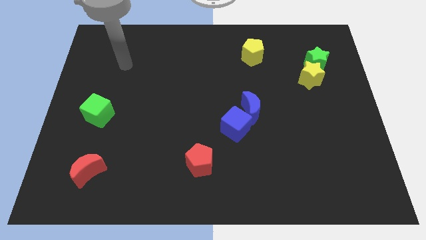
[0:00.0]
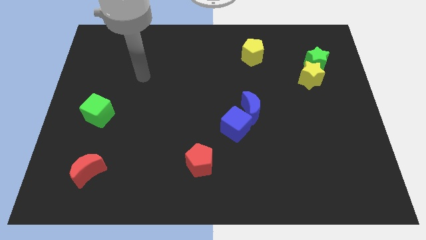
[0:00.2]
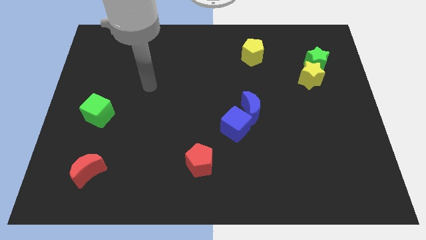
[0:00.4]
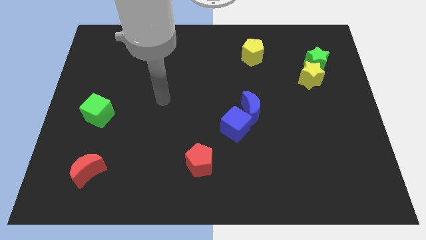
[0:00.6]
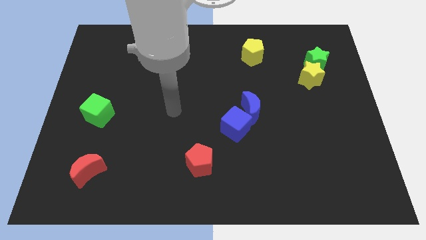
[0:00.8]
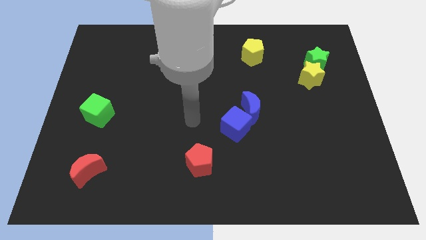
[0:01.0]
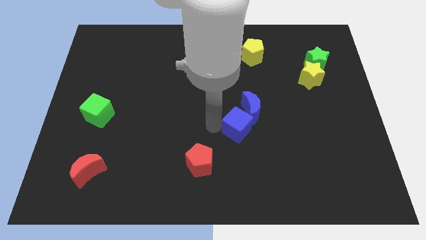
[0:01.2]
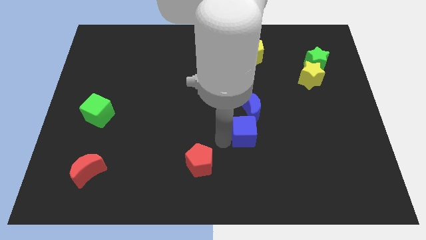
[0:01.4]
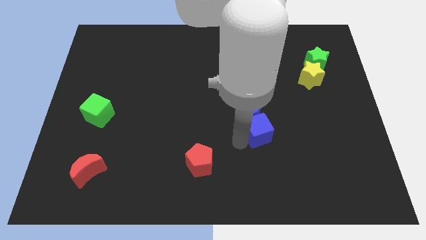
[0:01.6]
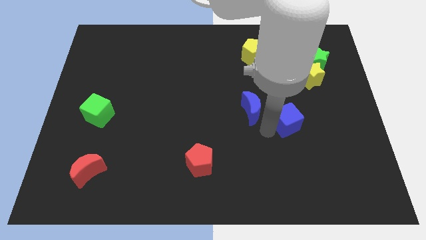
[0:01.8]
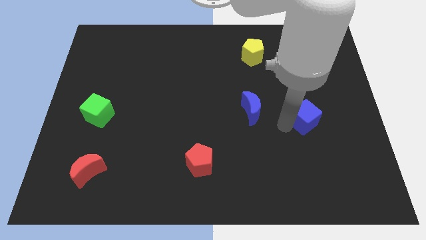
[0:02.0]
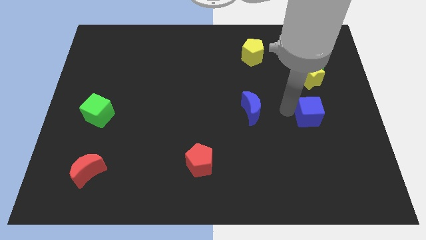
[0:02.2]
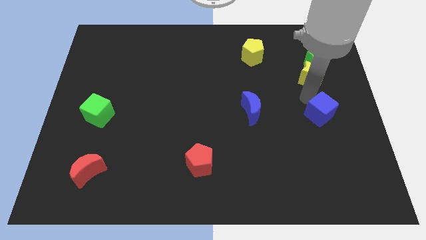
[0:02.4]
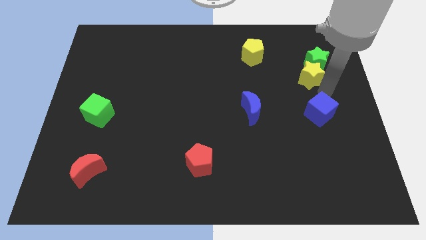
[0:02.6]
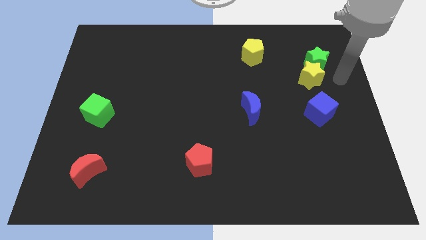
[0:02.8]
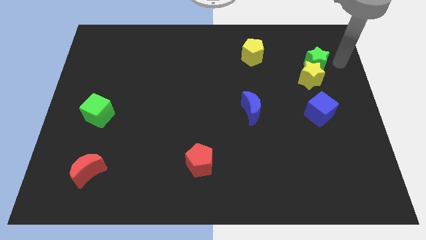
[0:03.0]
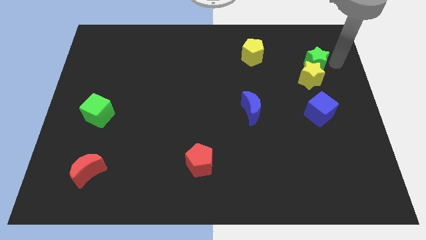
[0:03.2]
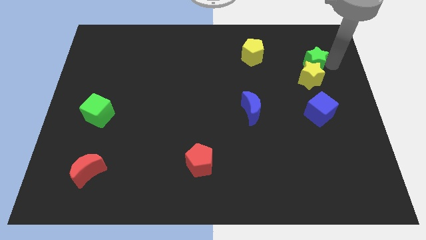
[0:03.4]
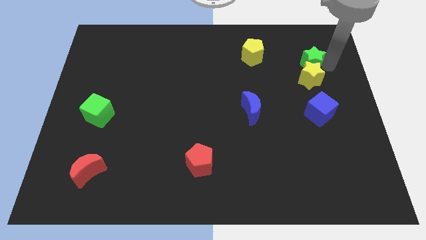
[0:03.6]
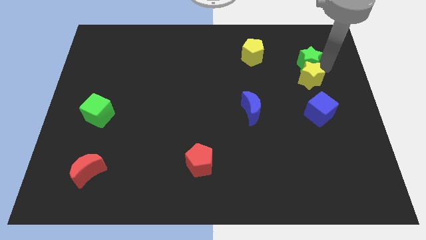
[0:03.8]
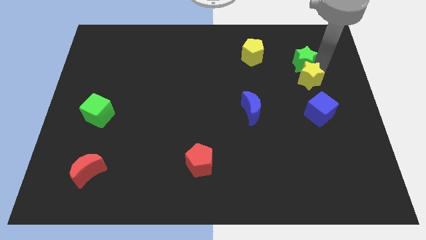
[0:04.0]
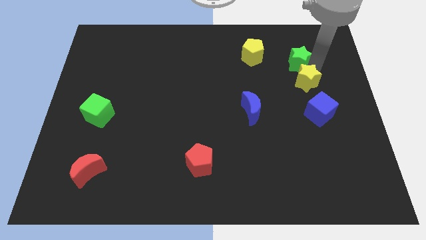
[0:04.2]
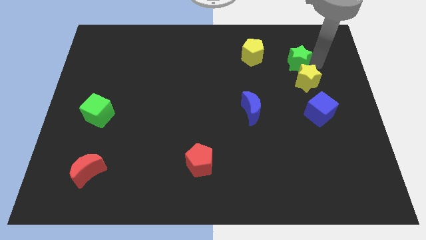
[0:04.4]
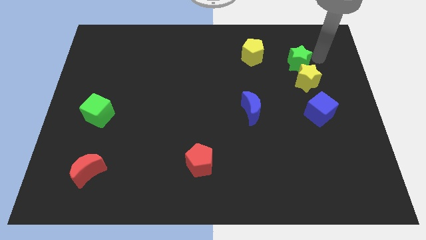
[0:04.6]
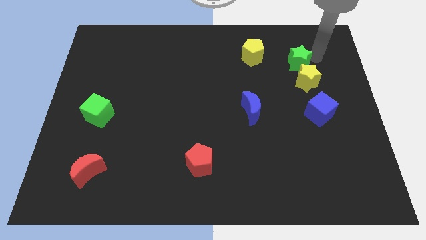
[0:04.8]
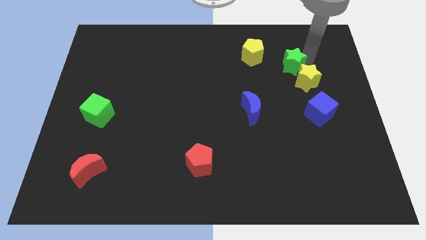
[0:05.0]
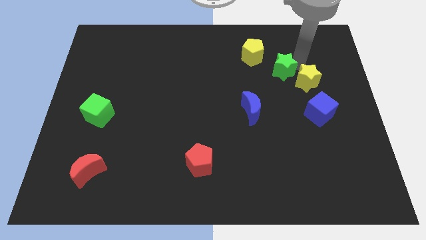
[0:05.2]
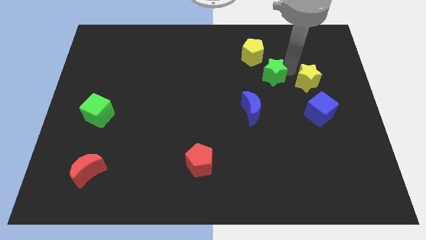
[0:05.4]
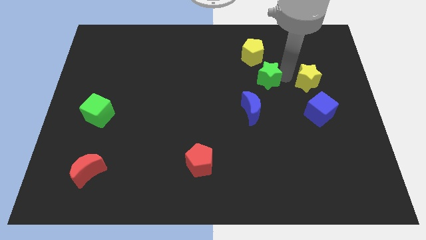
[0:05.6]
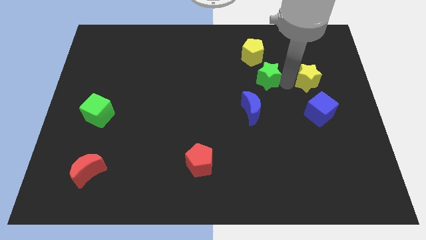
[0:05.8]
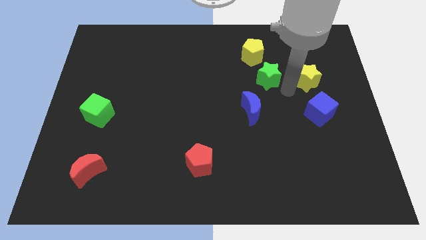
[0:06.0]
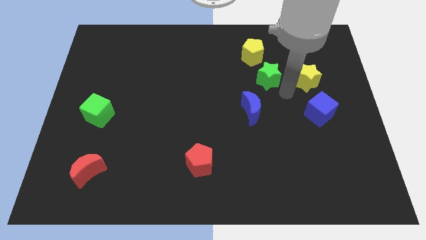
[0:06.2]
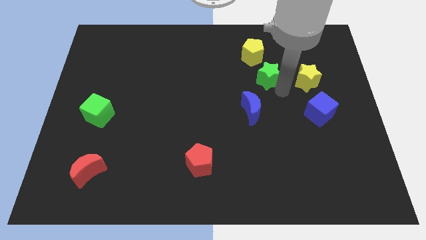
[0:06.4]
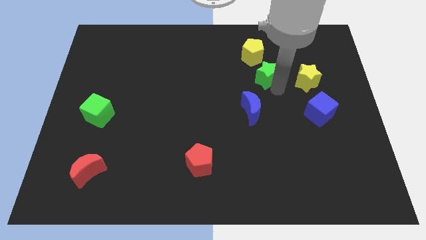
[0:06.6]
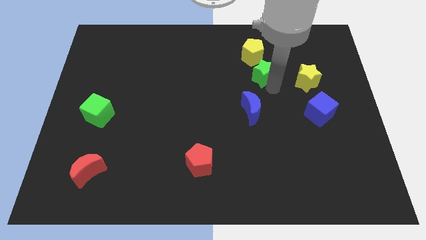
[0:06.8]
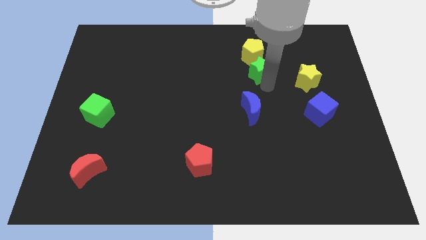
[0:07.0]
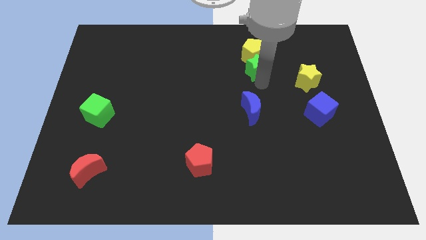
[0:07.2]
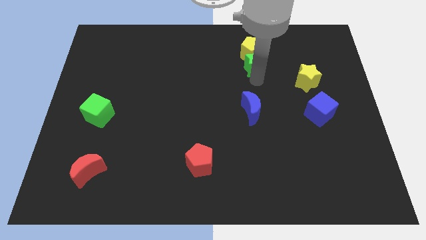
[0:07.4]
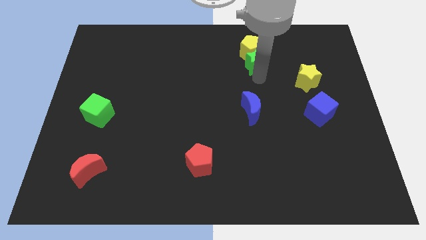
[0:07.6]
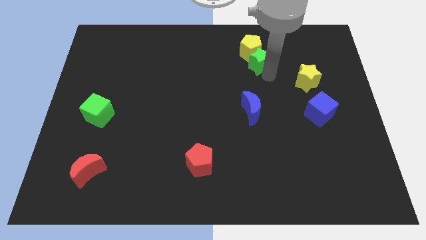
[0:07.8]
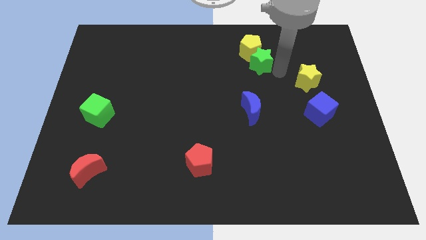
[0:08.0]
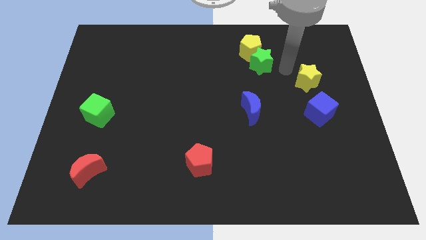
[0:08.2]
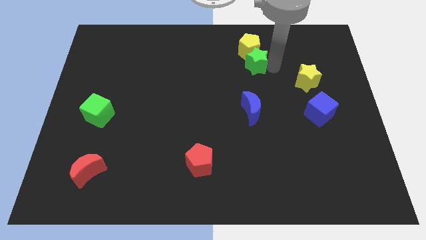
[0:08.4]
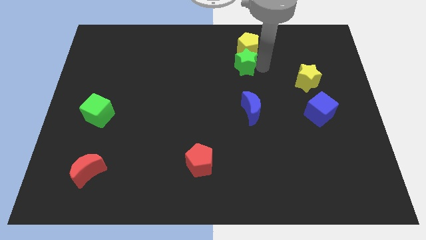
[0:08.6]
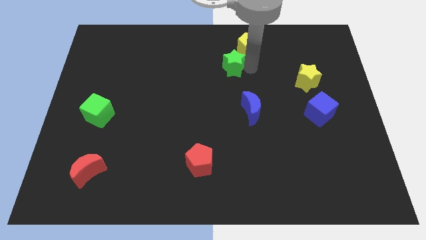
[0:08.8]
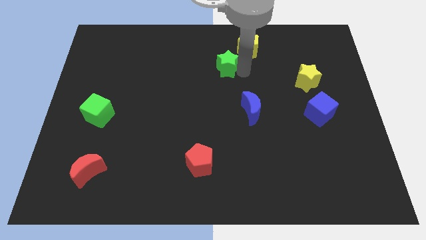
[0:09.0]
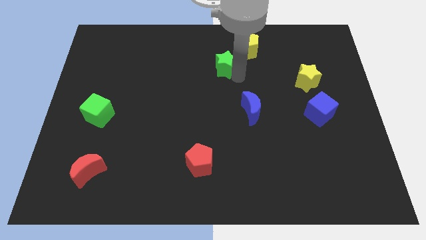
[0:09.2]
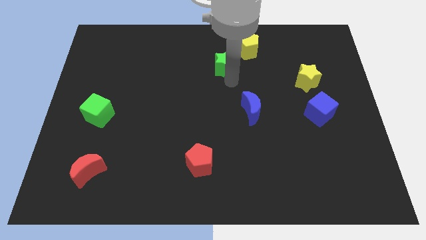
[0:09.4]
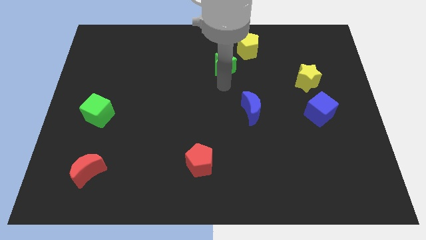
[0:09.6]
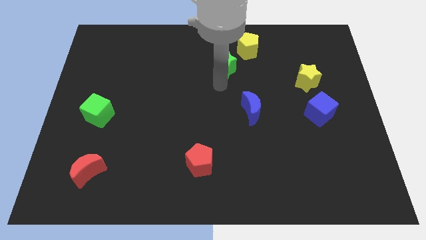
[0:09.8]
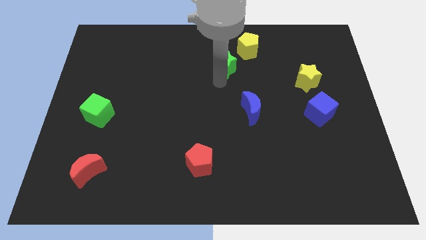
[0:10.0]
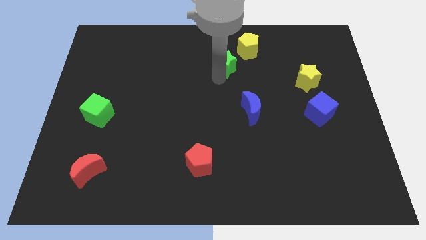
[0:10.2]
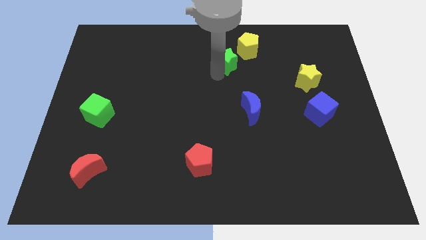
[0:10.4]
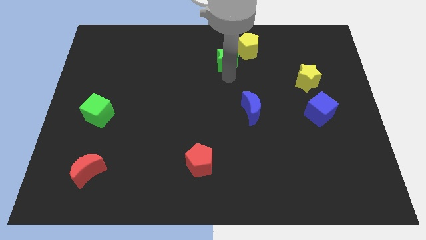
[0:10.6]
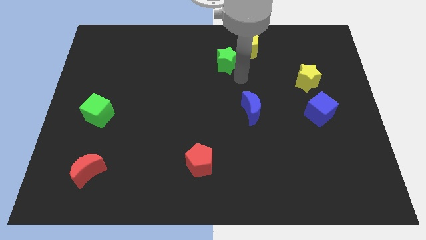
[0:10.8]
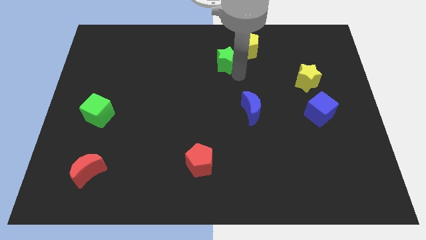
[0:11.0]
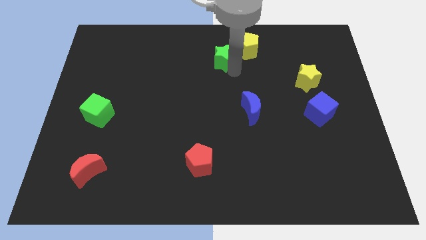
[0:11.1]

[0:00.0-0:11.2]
move the green star to the left of the yellow pentagon
